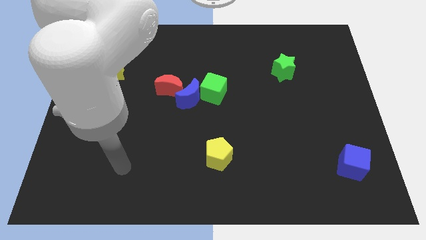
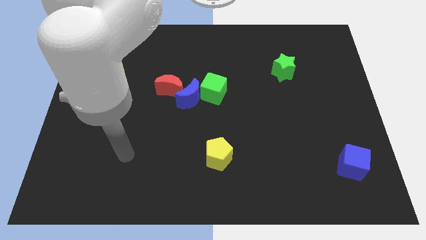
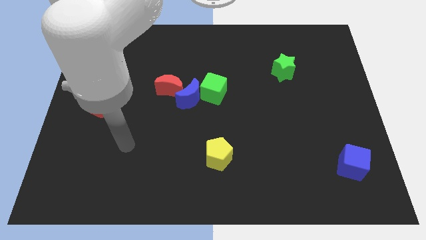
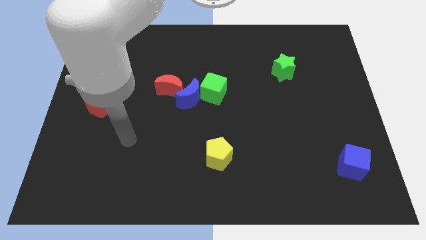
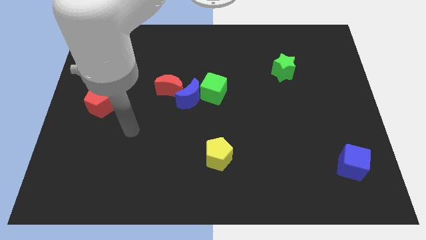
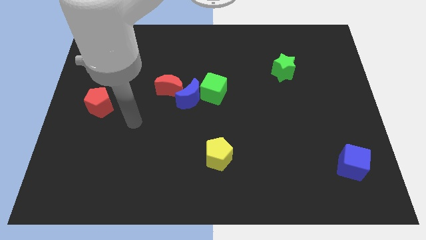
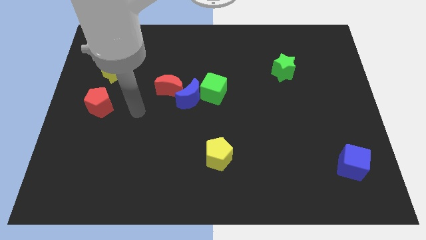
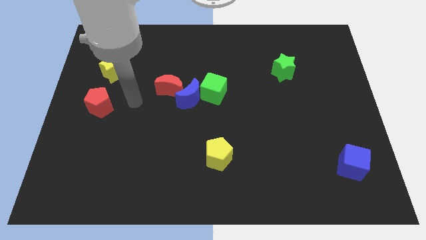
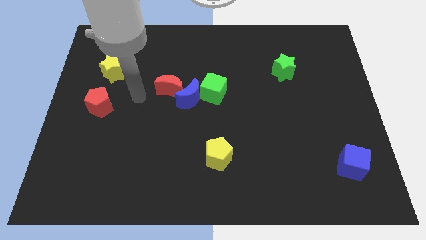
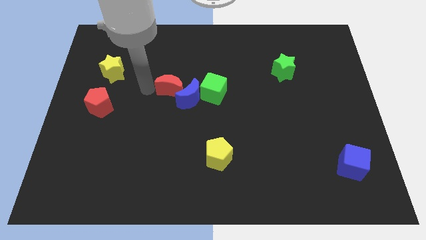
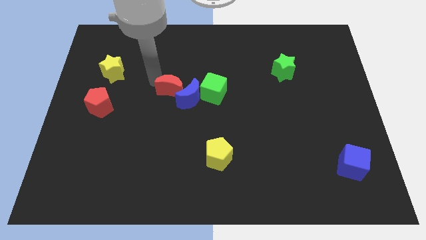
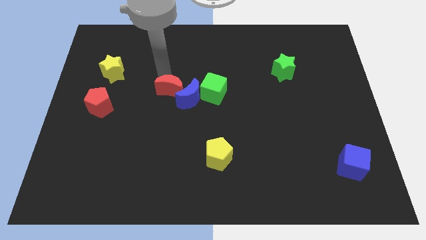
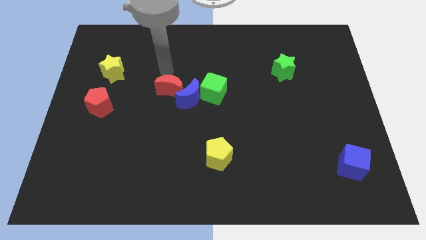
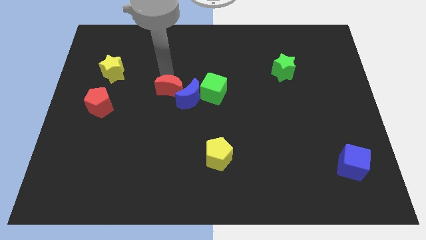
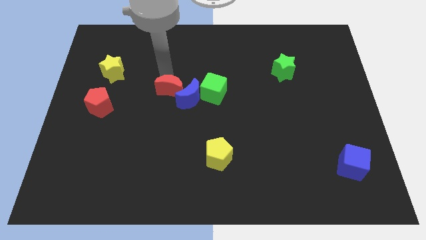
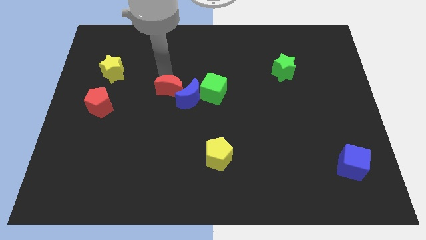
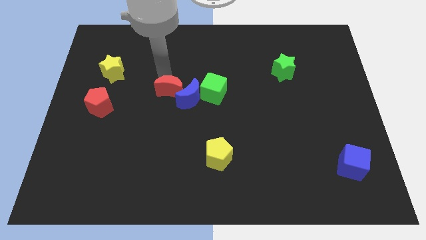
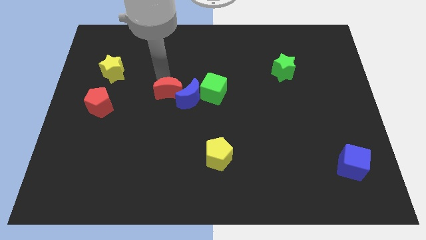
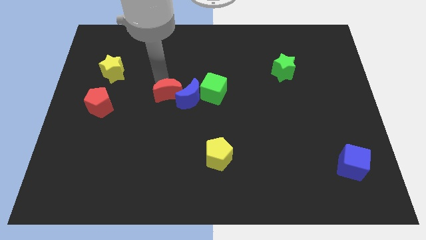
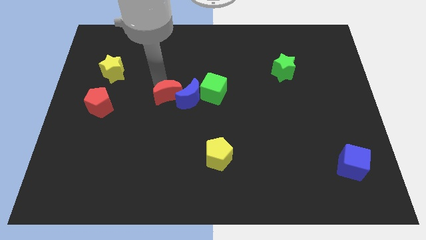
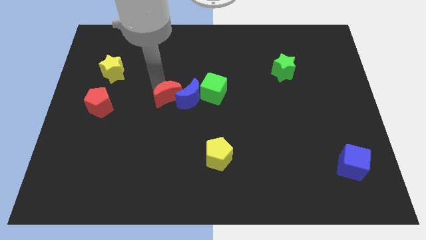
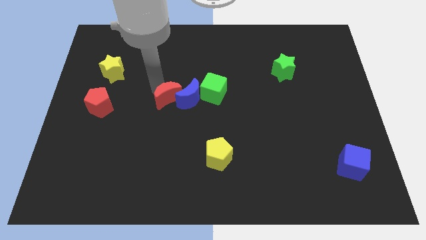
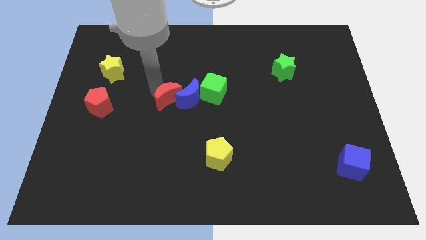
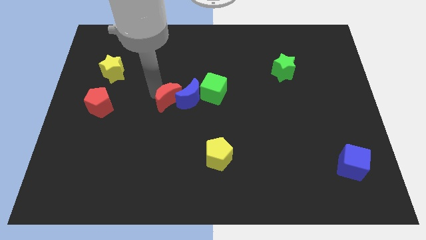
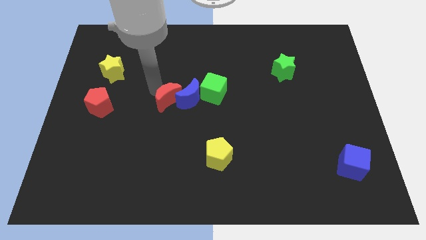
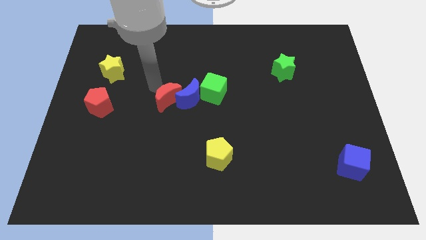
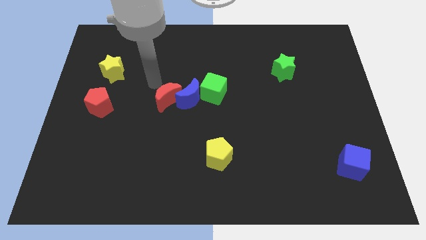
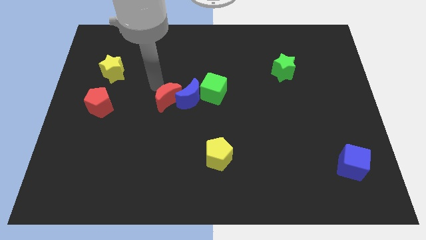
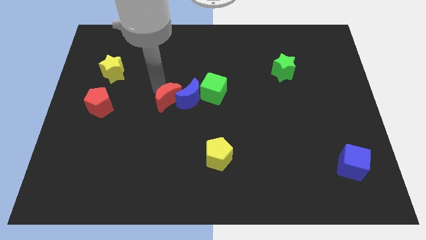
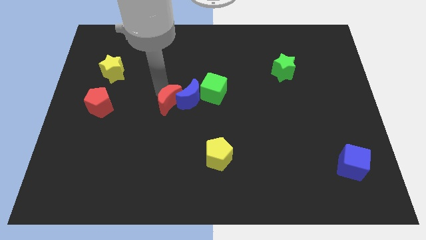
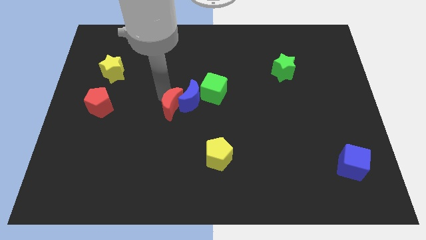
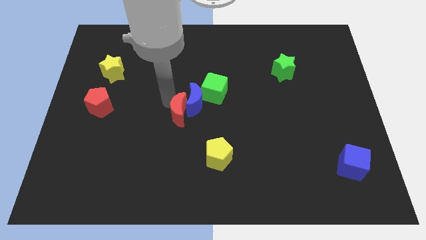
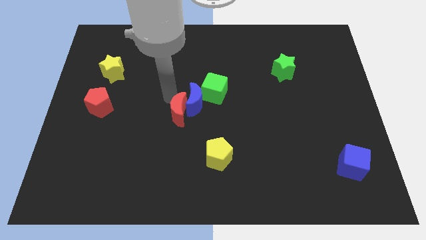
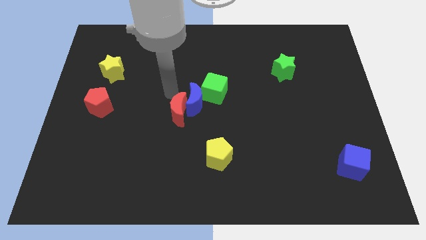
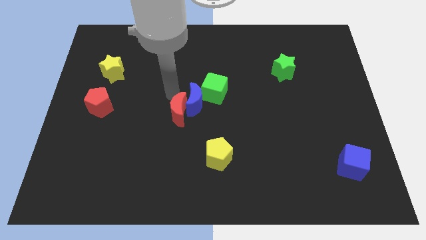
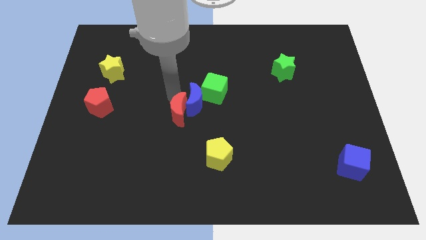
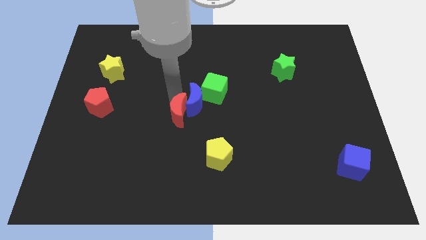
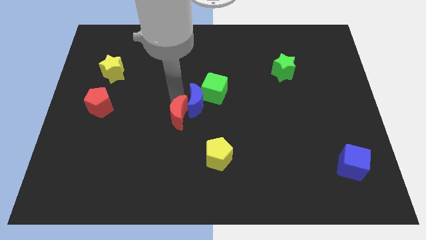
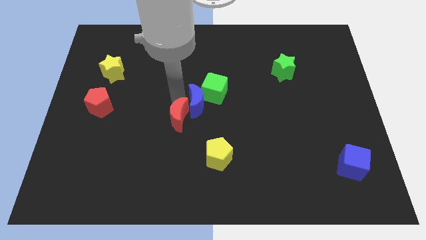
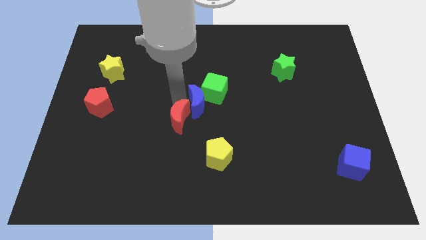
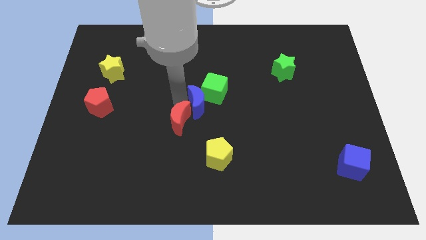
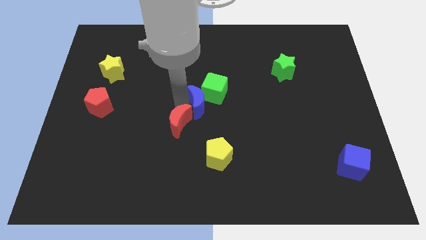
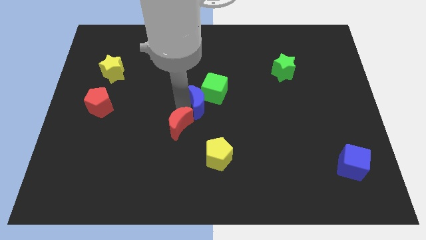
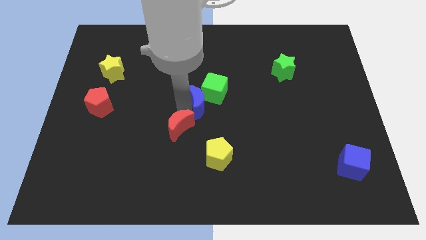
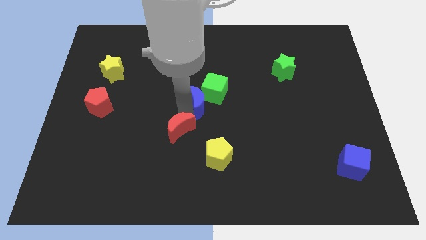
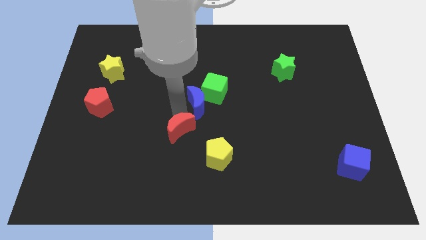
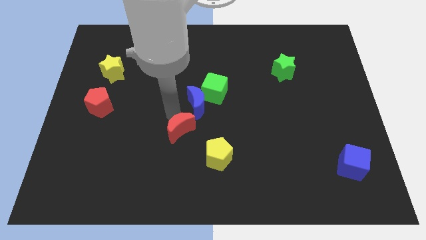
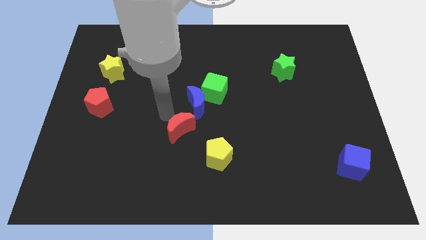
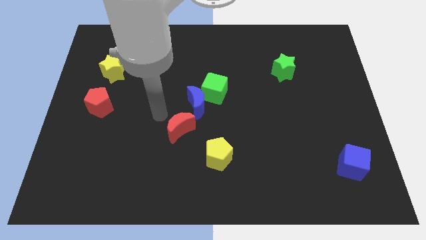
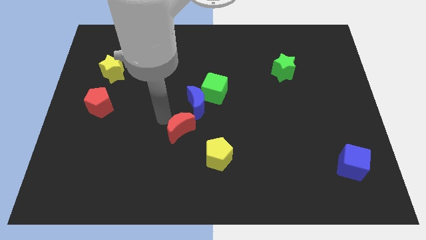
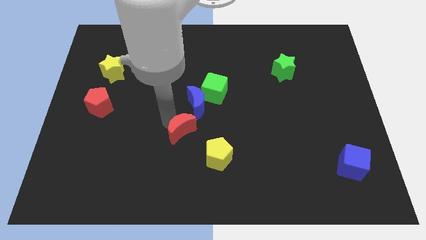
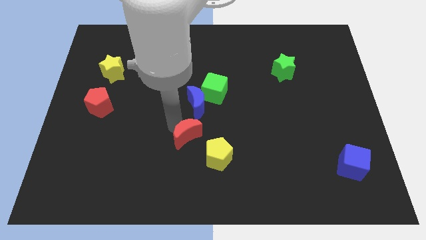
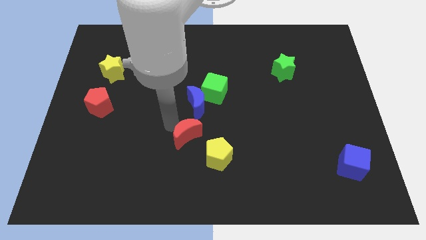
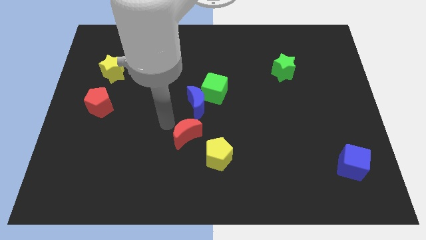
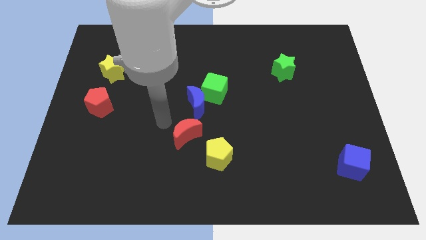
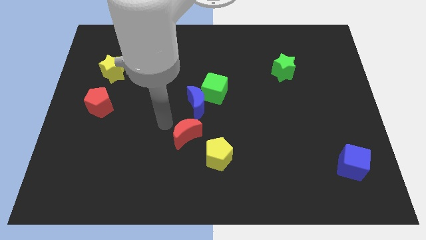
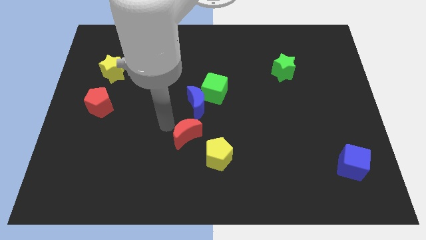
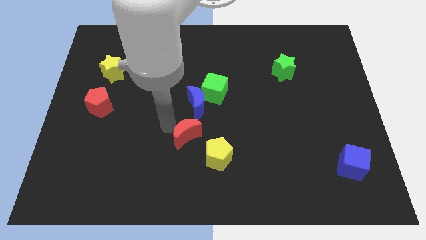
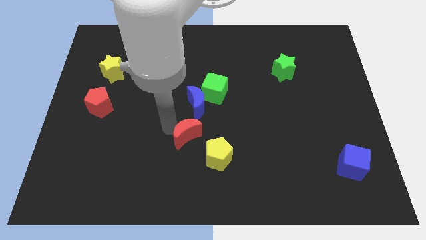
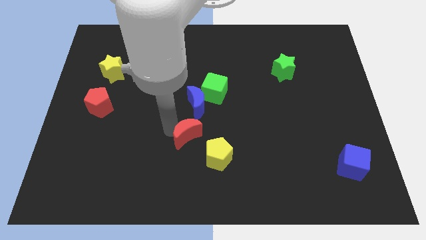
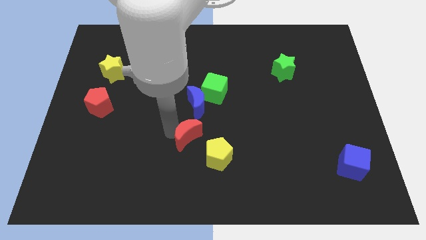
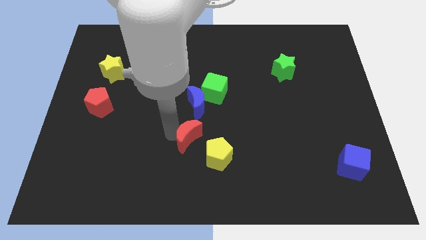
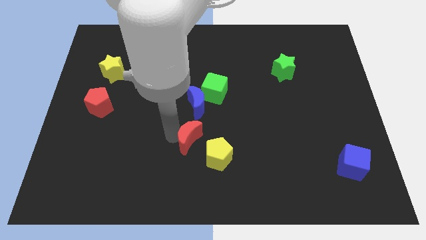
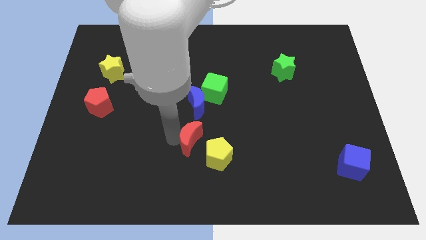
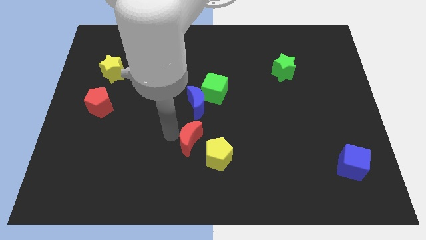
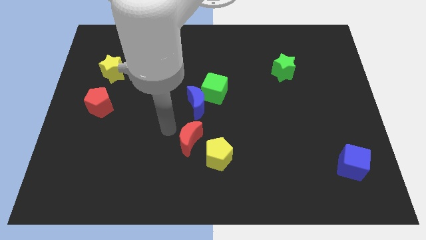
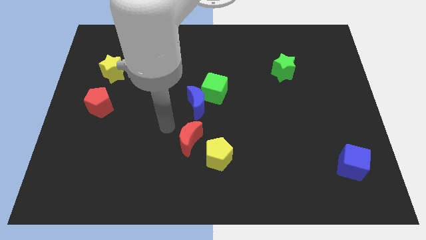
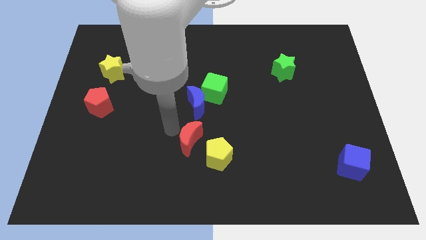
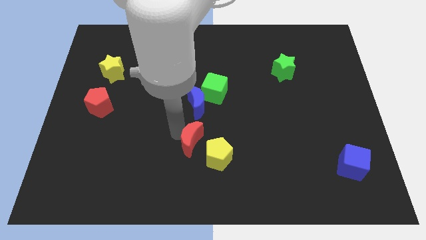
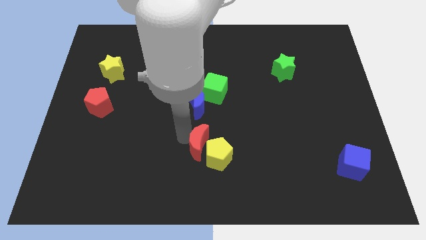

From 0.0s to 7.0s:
put the red moon towards the yellow pentagon

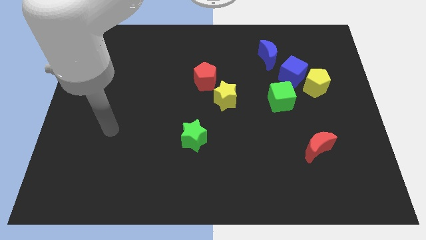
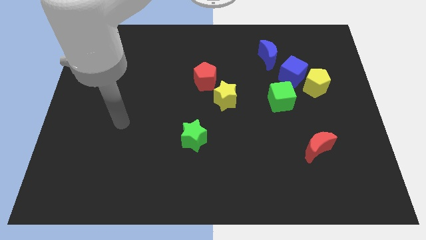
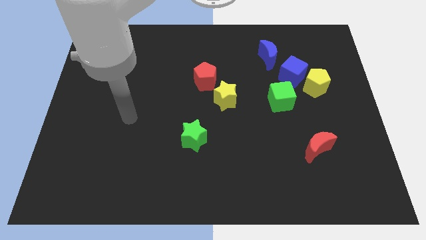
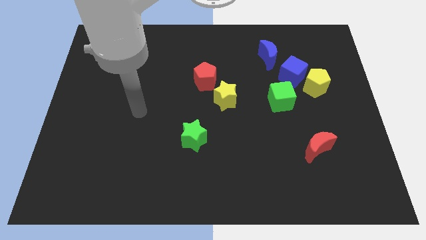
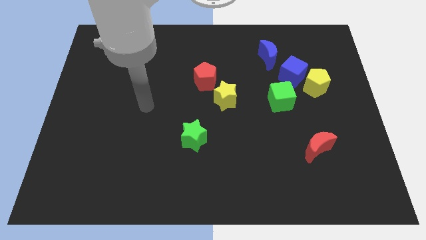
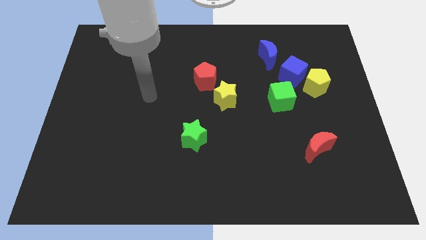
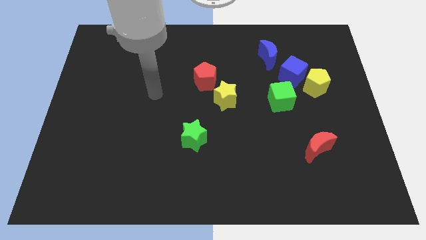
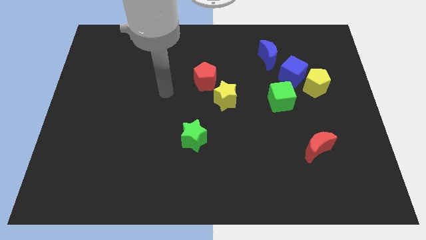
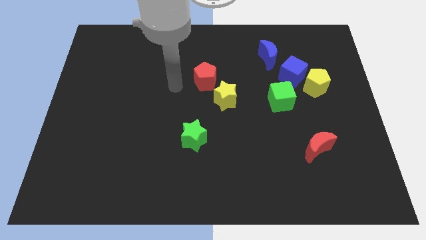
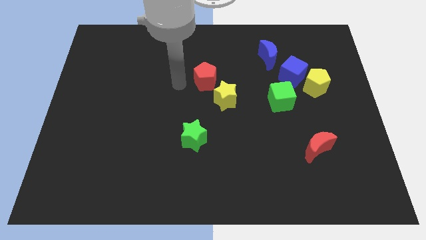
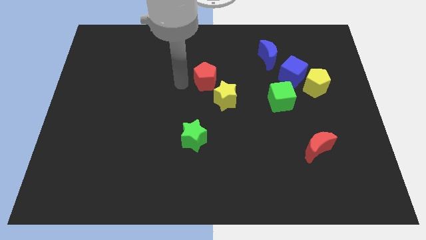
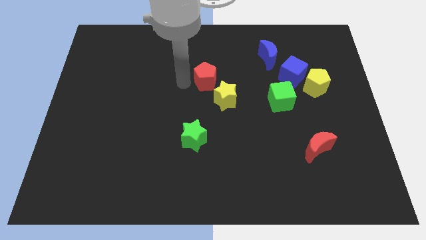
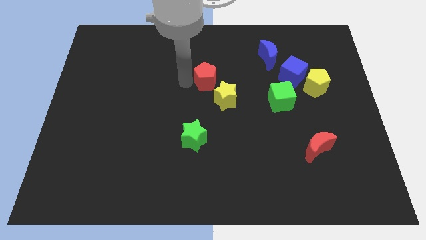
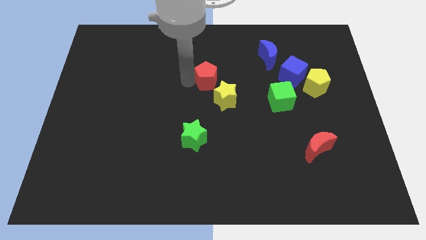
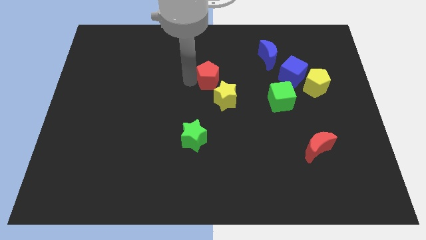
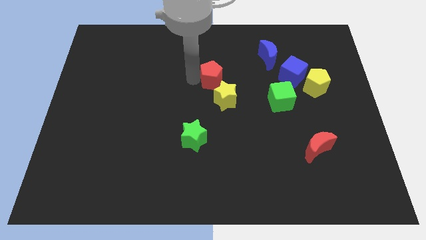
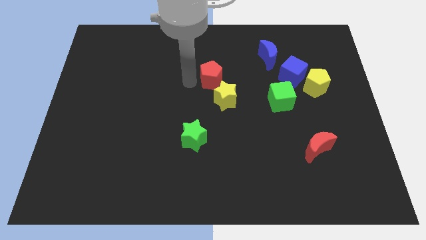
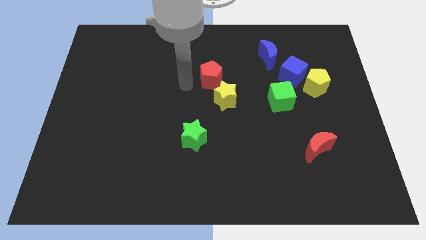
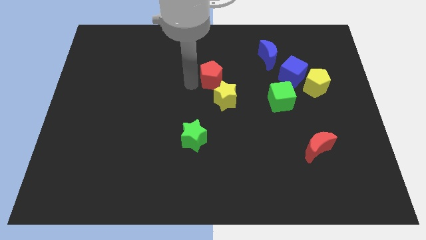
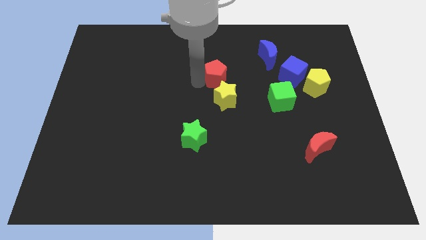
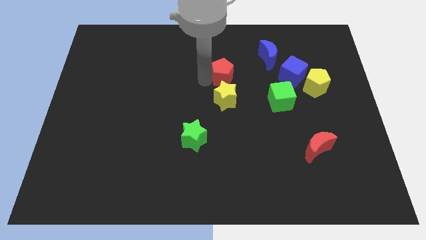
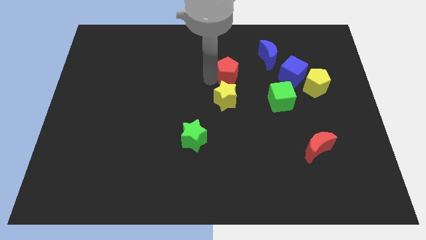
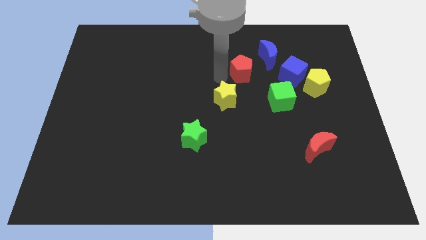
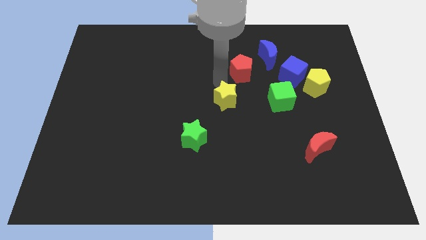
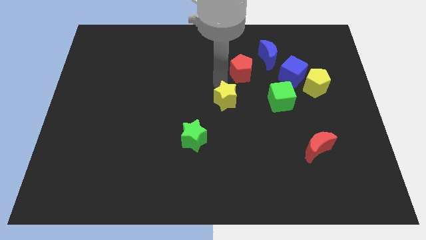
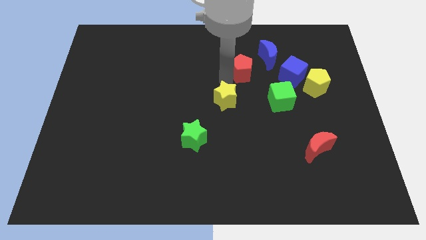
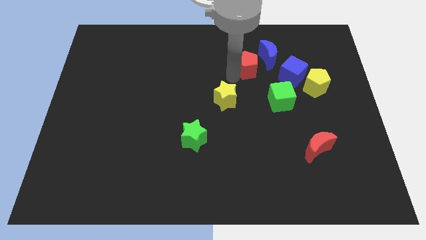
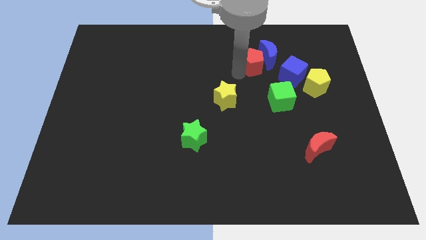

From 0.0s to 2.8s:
slide the red pentagon to the blue moon
